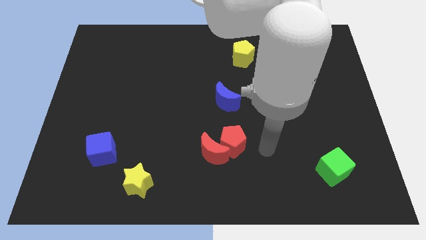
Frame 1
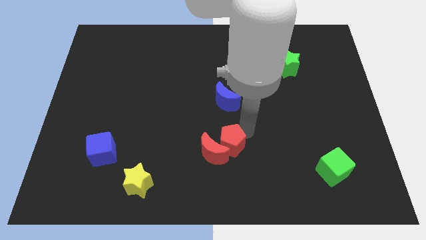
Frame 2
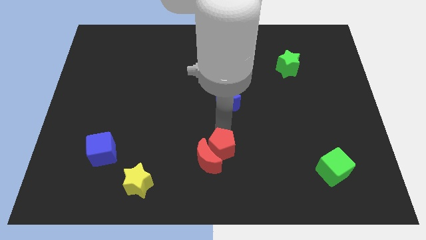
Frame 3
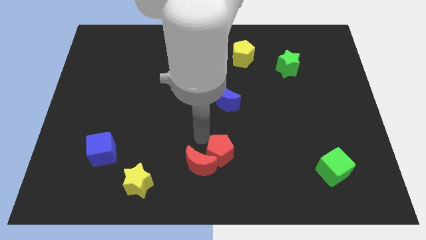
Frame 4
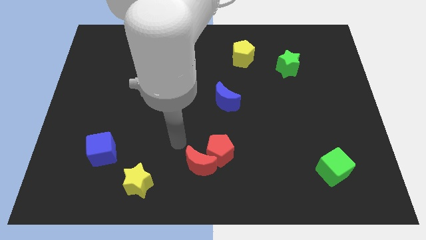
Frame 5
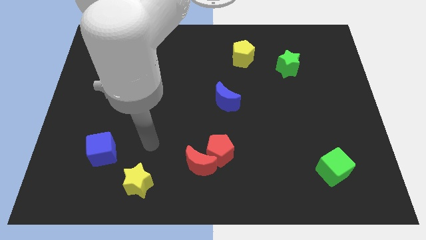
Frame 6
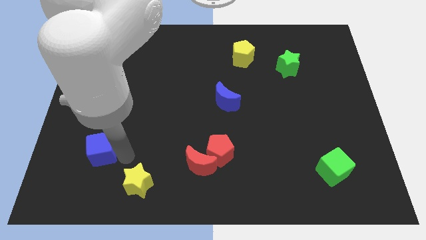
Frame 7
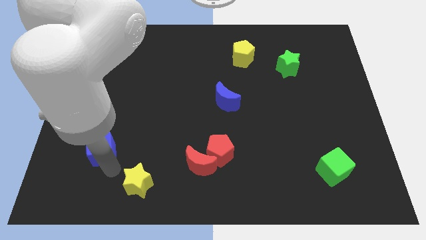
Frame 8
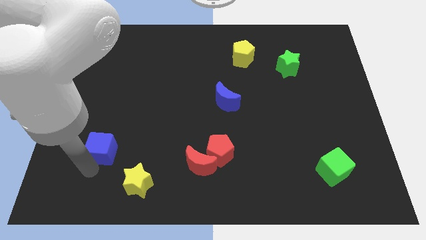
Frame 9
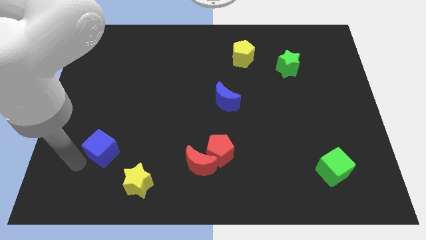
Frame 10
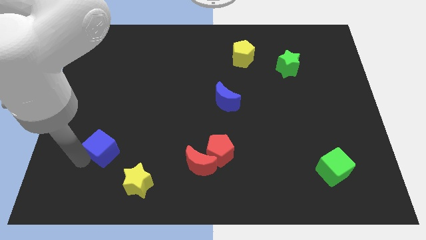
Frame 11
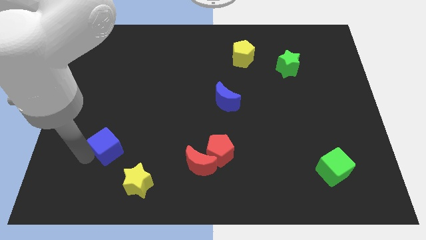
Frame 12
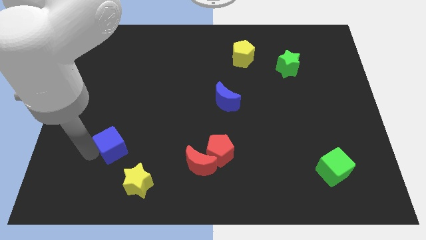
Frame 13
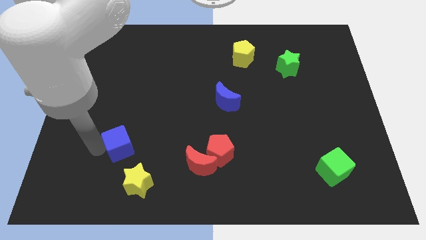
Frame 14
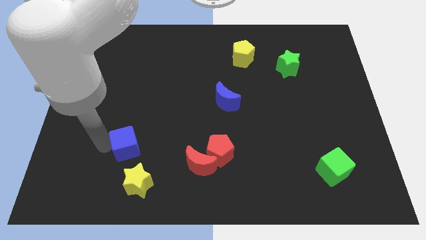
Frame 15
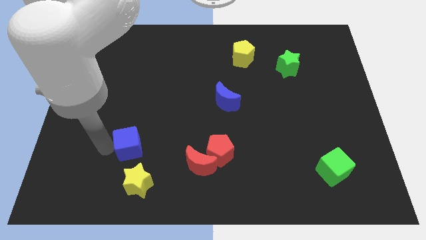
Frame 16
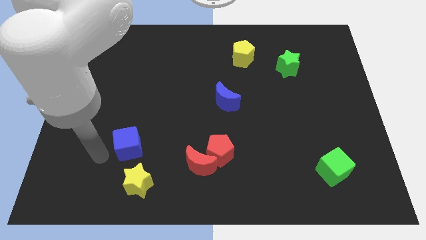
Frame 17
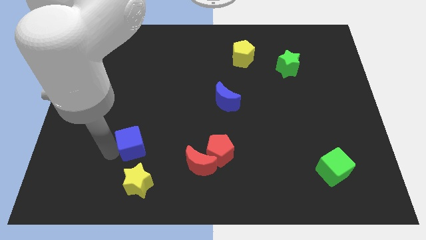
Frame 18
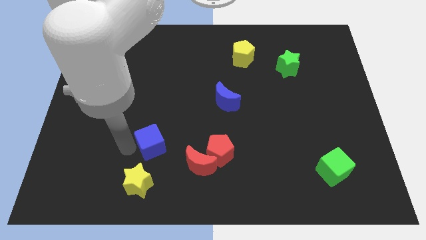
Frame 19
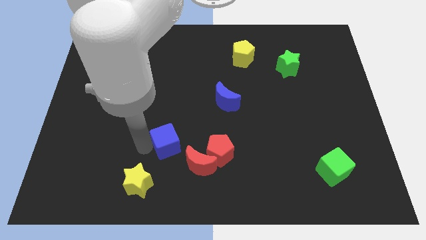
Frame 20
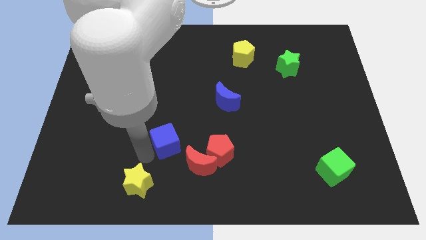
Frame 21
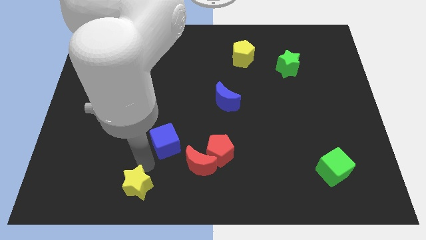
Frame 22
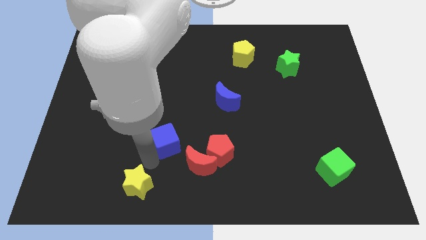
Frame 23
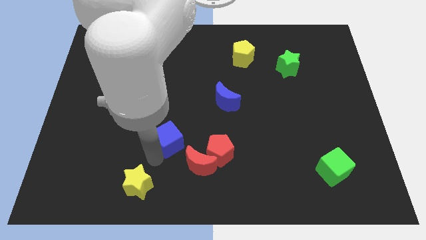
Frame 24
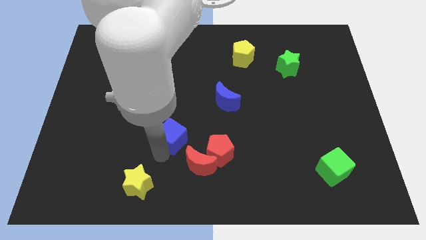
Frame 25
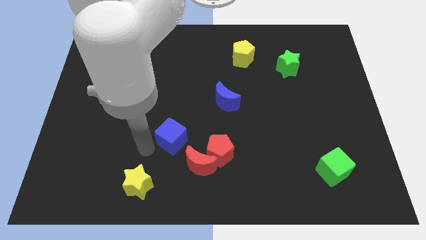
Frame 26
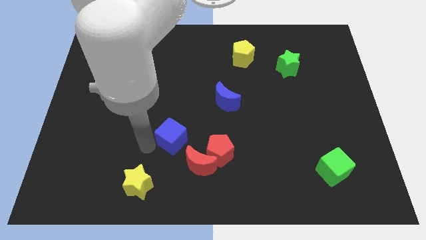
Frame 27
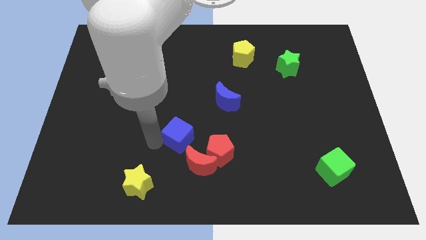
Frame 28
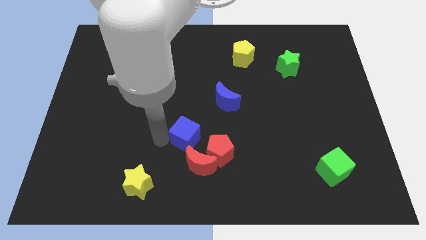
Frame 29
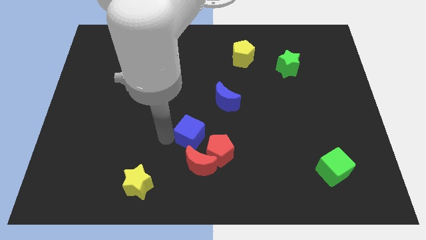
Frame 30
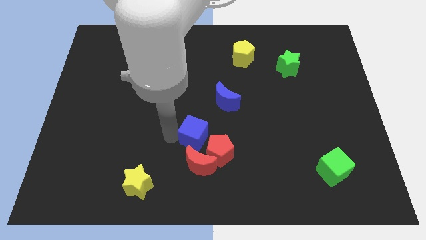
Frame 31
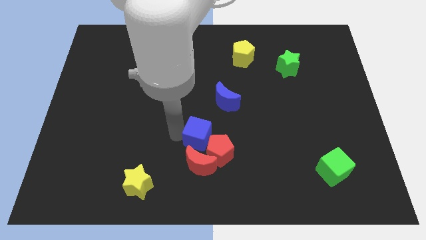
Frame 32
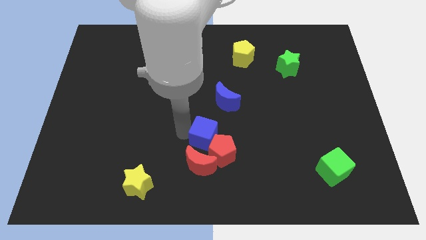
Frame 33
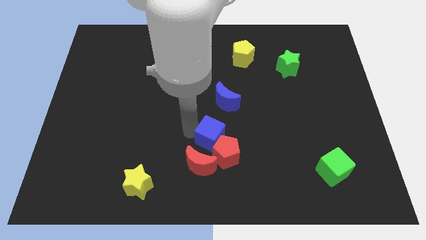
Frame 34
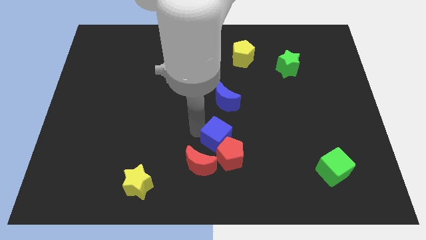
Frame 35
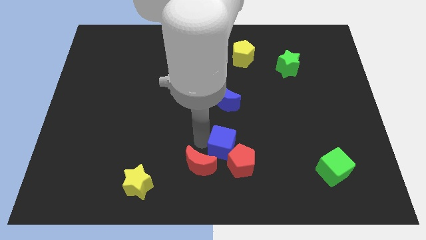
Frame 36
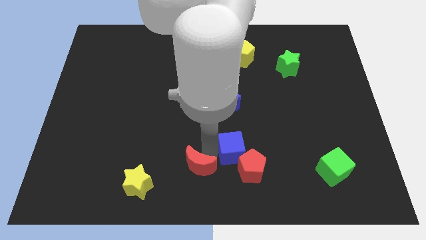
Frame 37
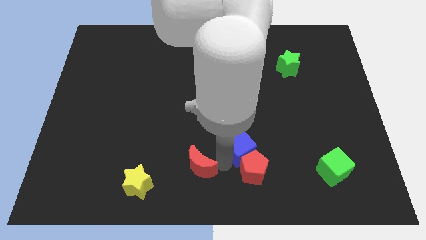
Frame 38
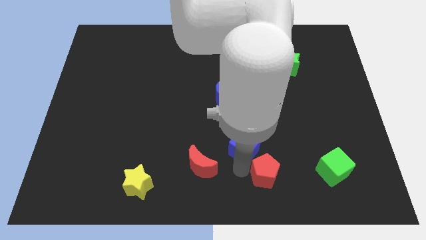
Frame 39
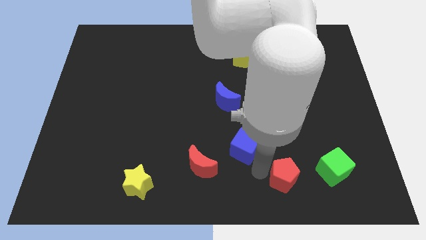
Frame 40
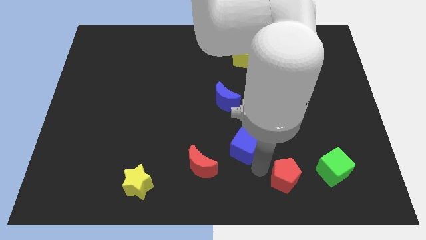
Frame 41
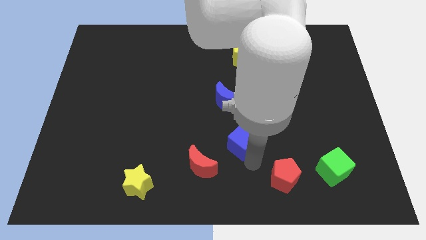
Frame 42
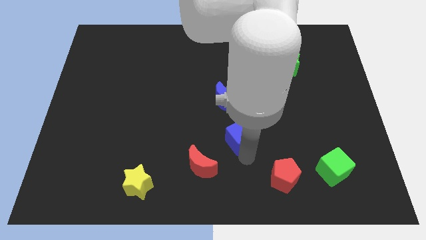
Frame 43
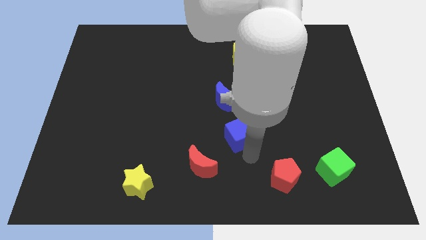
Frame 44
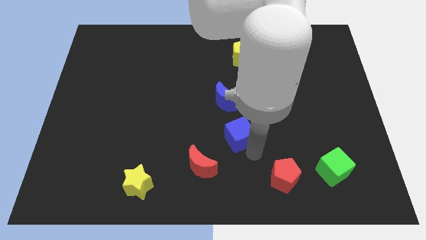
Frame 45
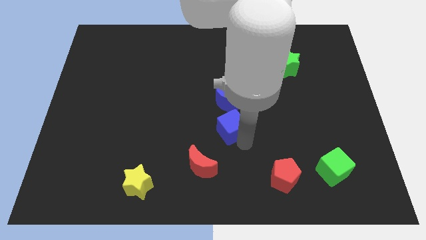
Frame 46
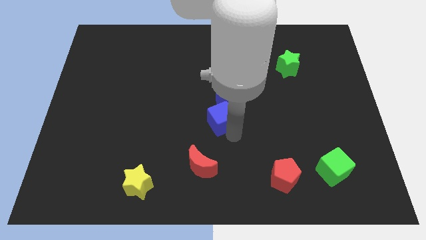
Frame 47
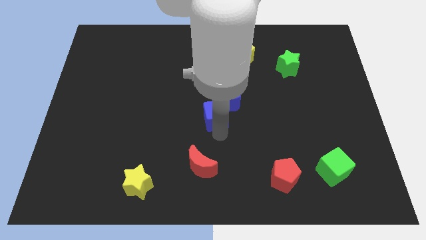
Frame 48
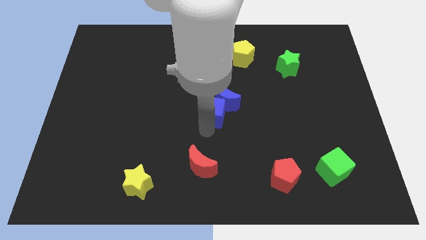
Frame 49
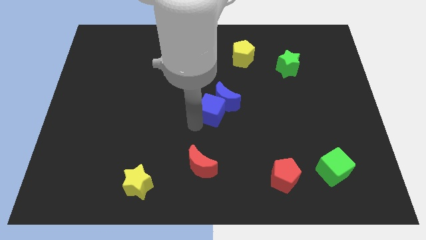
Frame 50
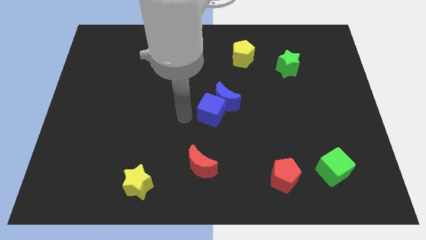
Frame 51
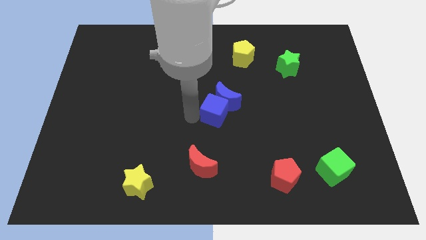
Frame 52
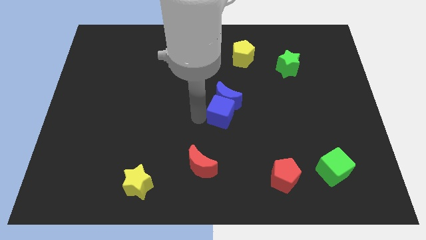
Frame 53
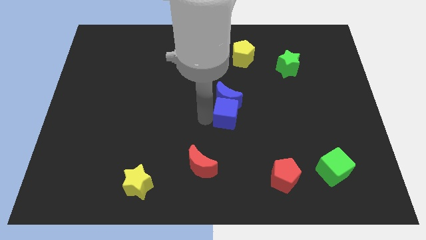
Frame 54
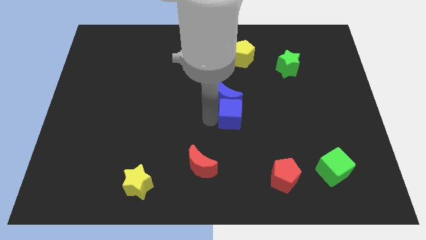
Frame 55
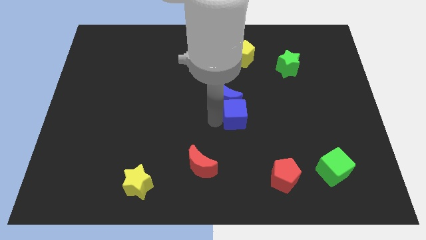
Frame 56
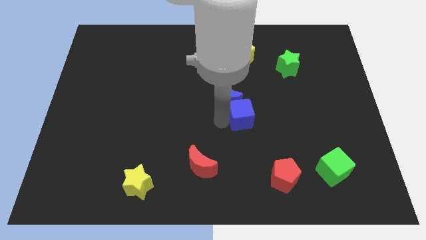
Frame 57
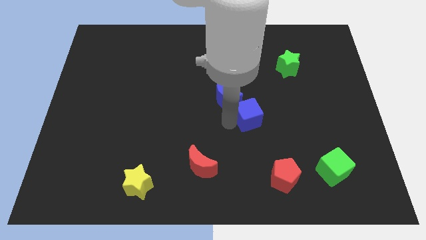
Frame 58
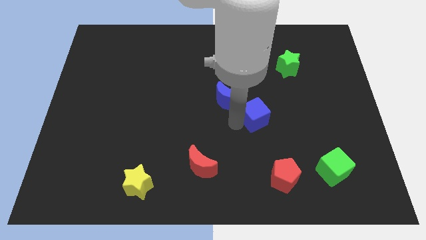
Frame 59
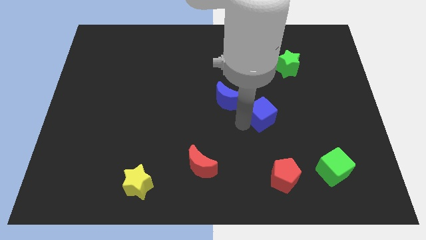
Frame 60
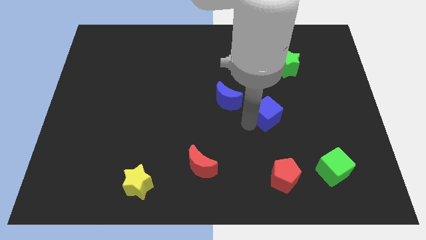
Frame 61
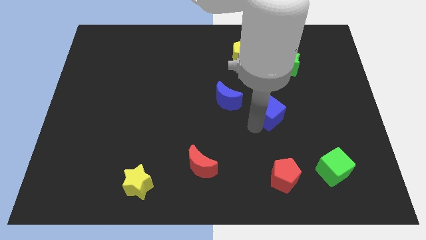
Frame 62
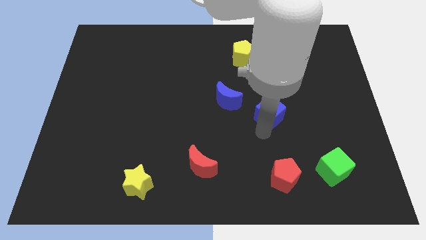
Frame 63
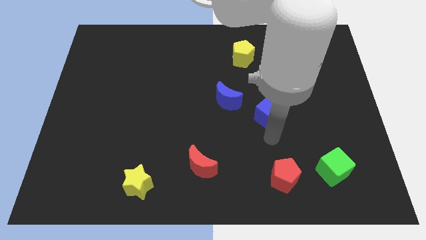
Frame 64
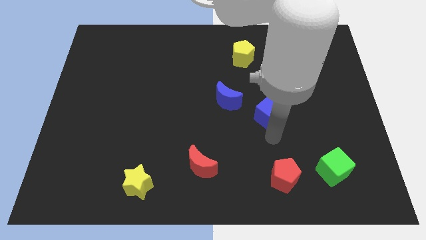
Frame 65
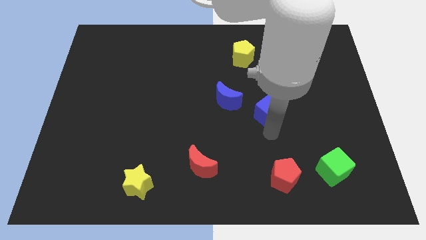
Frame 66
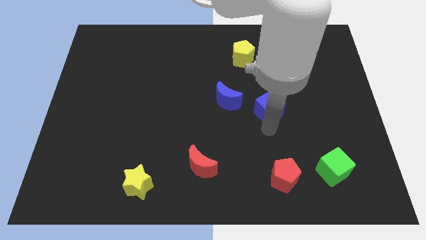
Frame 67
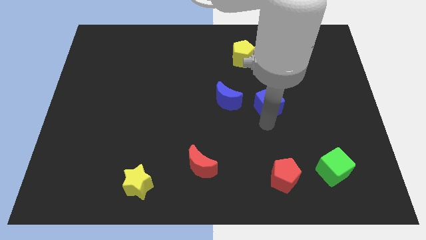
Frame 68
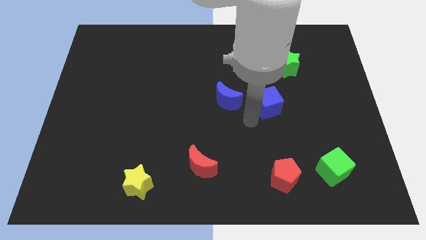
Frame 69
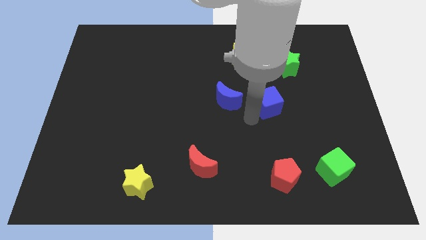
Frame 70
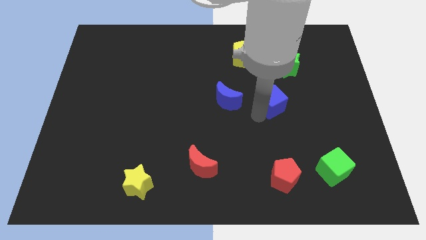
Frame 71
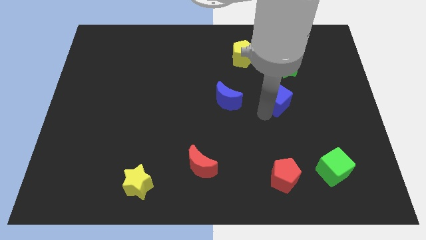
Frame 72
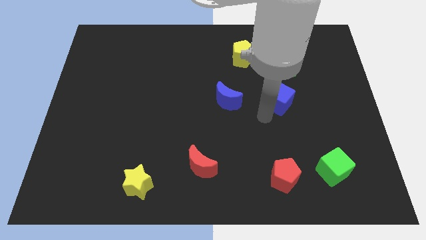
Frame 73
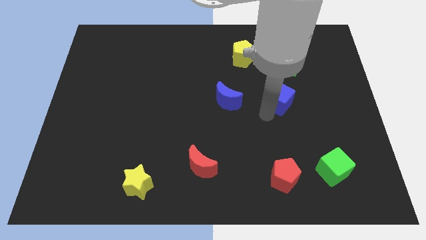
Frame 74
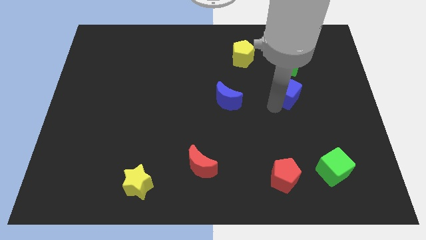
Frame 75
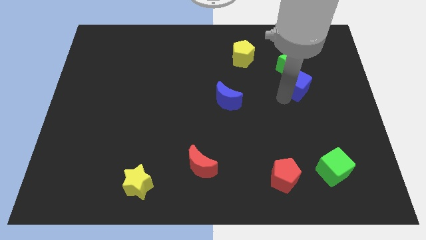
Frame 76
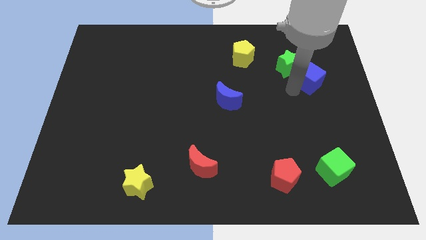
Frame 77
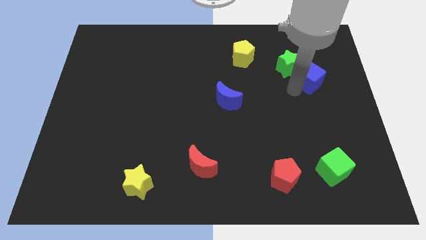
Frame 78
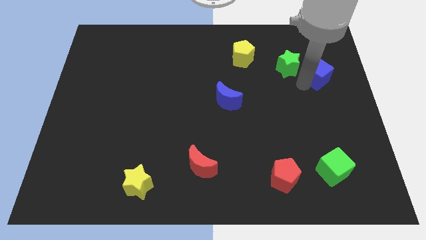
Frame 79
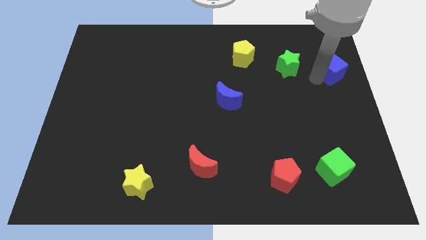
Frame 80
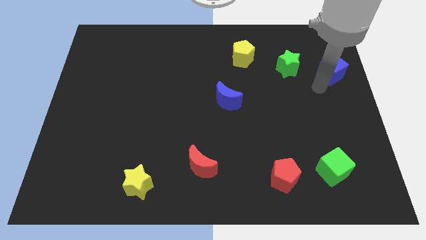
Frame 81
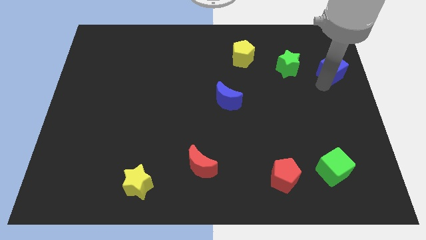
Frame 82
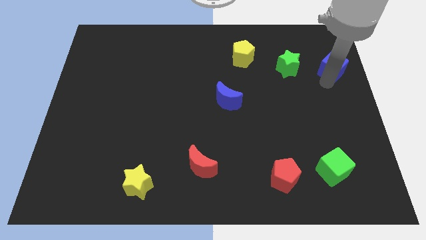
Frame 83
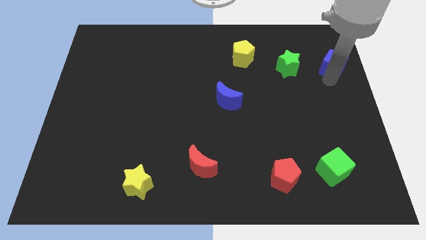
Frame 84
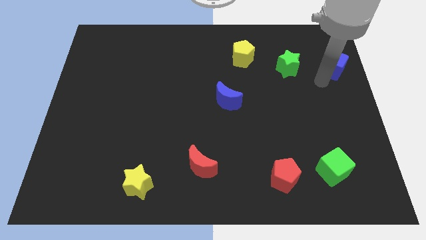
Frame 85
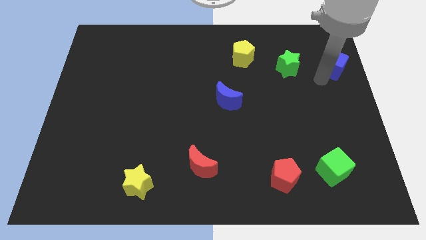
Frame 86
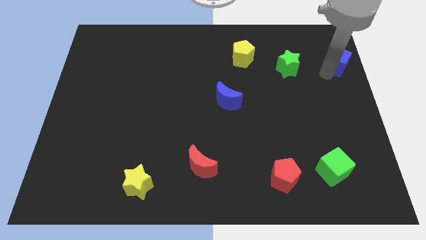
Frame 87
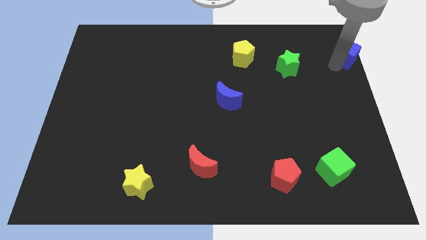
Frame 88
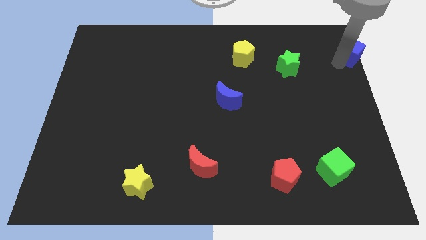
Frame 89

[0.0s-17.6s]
push the blue cube to the top right
